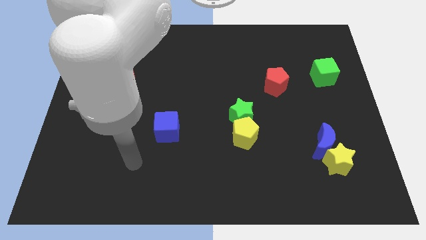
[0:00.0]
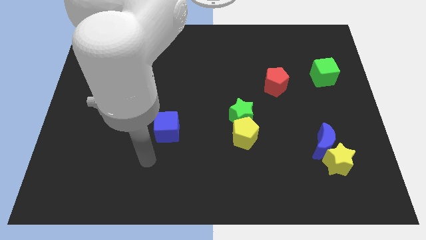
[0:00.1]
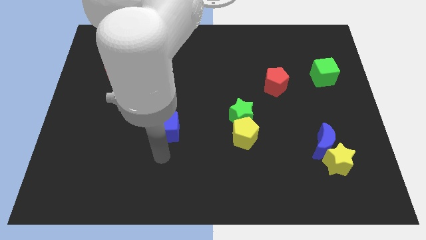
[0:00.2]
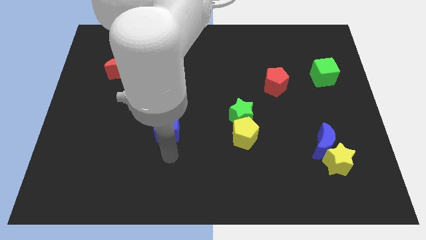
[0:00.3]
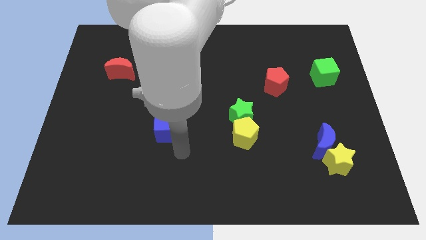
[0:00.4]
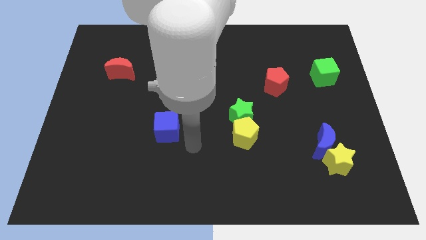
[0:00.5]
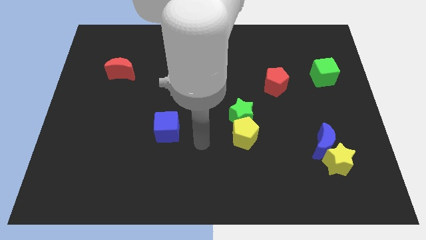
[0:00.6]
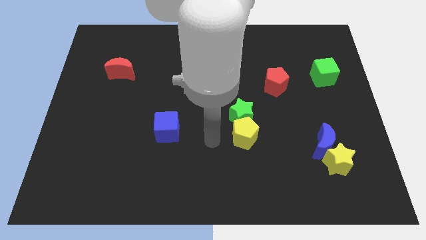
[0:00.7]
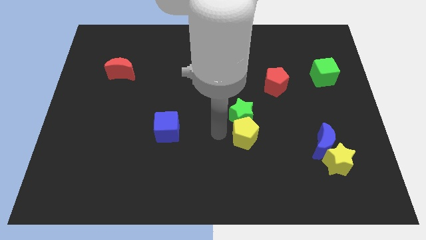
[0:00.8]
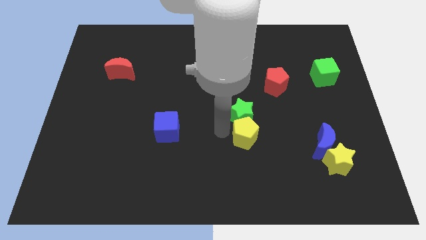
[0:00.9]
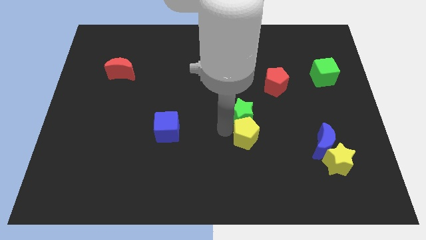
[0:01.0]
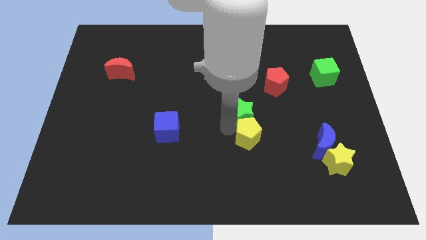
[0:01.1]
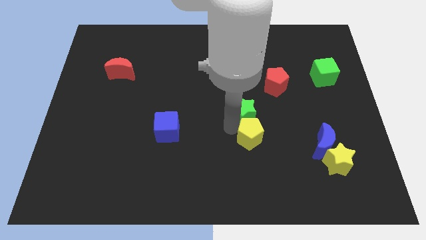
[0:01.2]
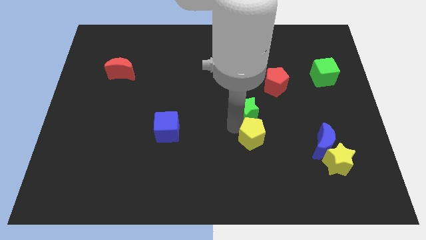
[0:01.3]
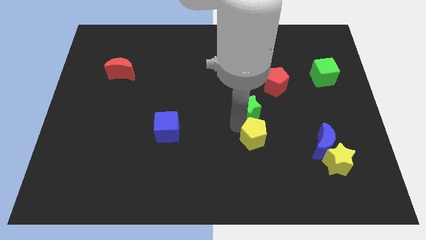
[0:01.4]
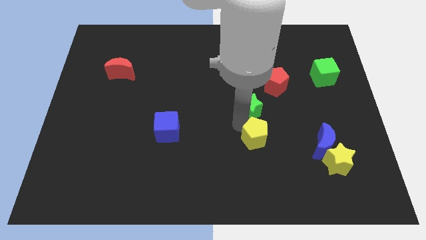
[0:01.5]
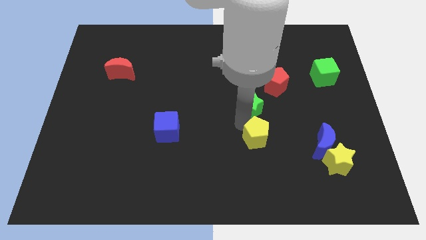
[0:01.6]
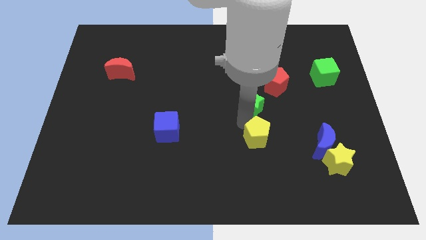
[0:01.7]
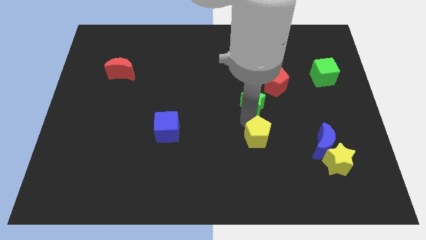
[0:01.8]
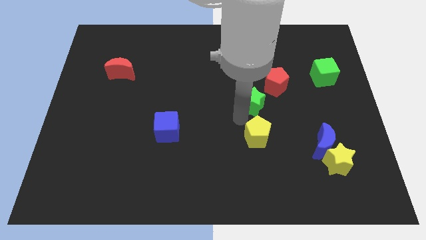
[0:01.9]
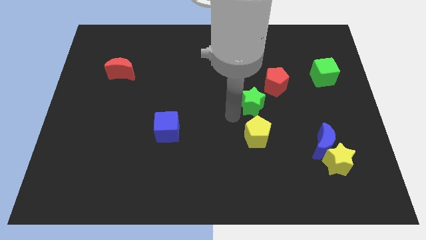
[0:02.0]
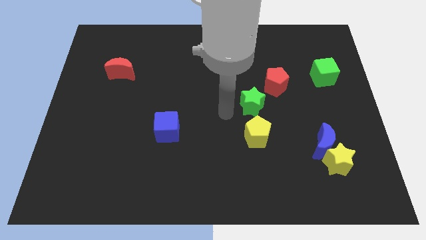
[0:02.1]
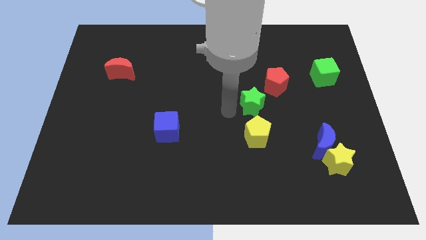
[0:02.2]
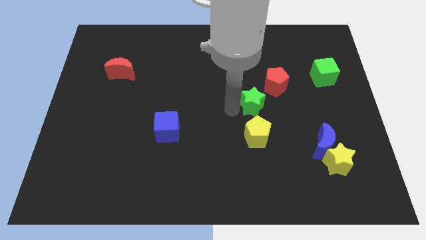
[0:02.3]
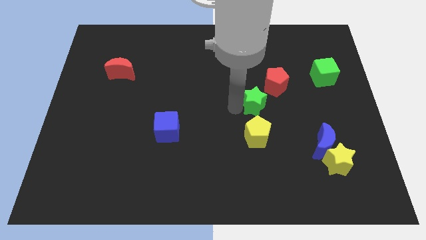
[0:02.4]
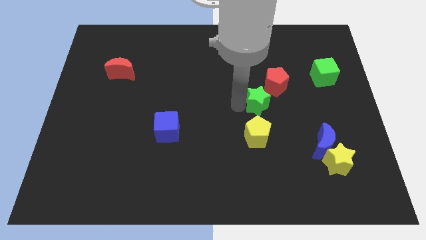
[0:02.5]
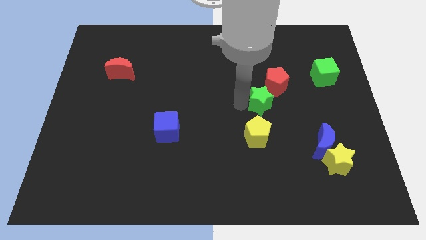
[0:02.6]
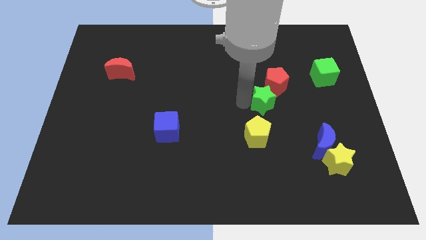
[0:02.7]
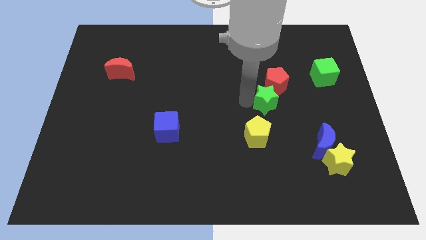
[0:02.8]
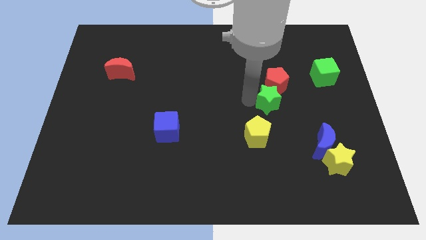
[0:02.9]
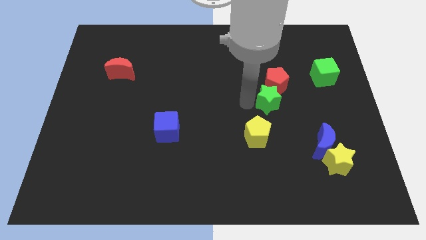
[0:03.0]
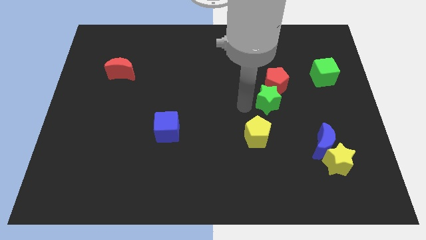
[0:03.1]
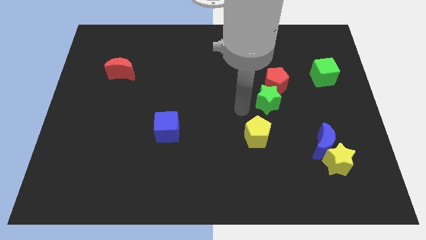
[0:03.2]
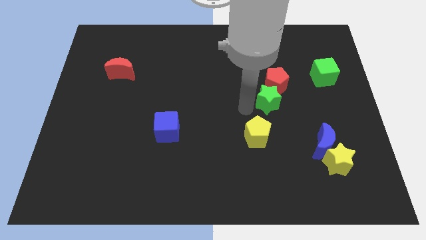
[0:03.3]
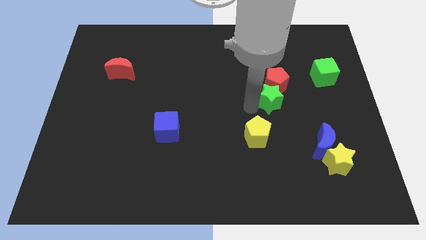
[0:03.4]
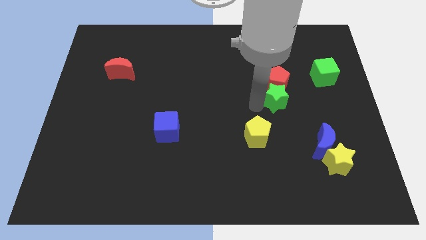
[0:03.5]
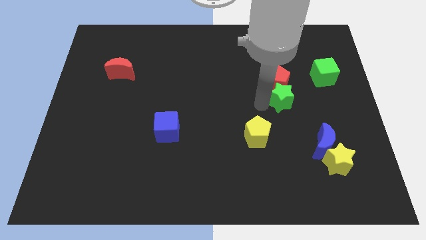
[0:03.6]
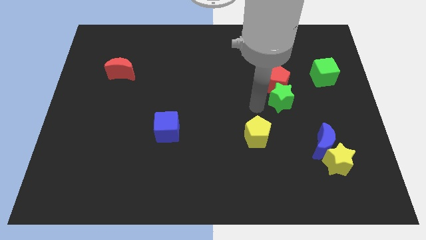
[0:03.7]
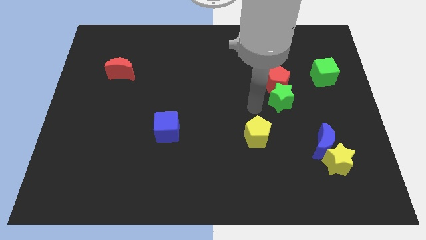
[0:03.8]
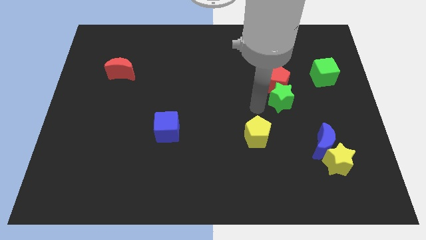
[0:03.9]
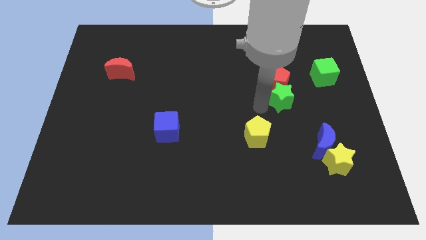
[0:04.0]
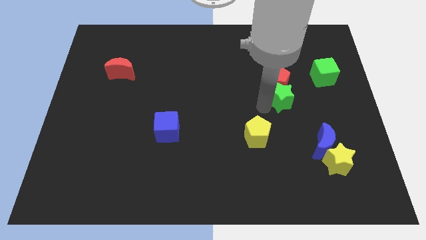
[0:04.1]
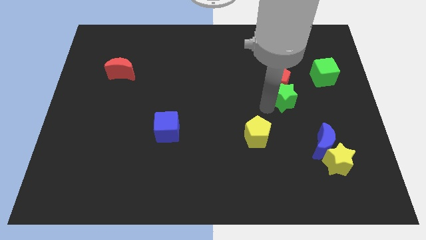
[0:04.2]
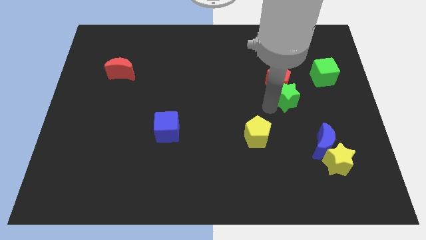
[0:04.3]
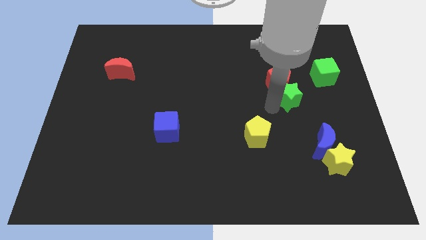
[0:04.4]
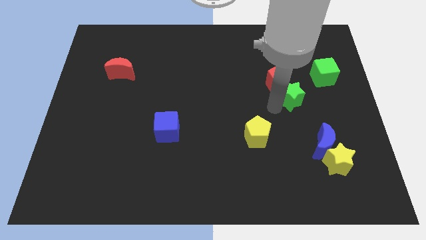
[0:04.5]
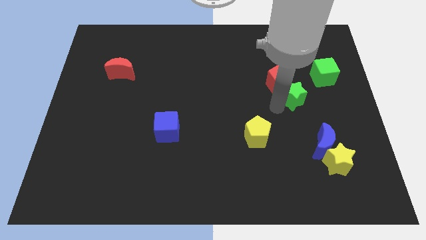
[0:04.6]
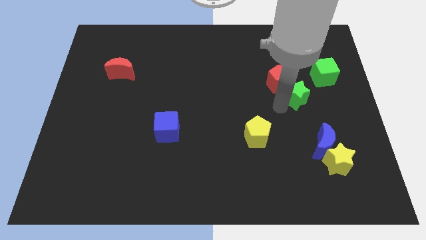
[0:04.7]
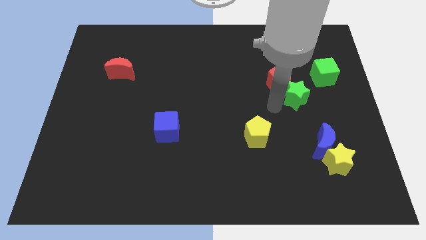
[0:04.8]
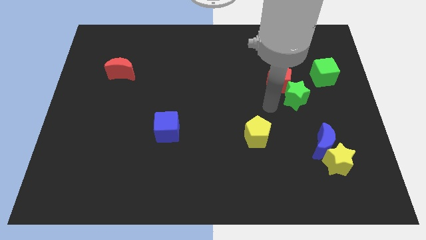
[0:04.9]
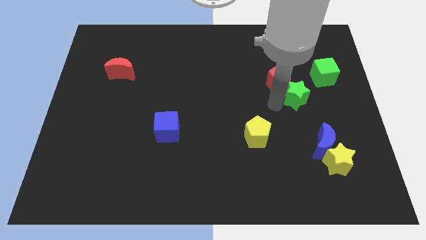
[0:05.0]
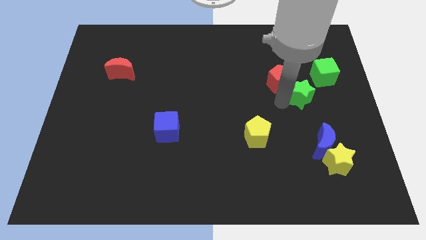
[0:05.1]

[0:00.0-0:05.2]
slide the green star to the right of the red pentagon

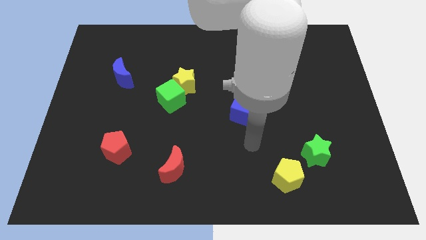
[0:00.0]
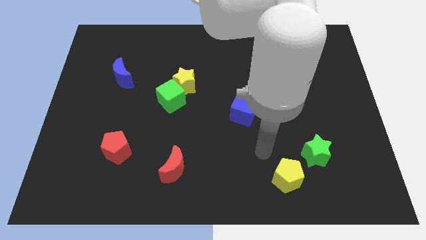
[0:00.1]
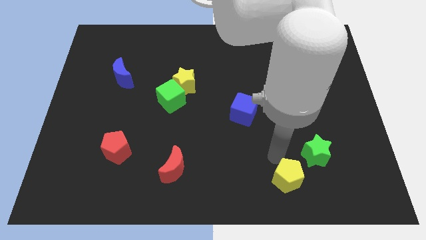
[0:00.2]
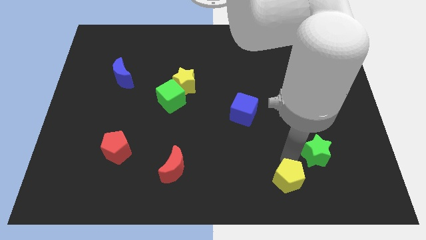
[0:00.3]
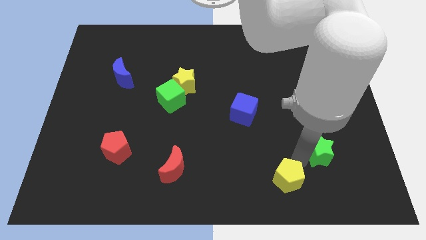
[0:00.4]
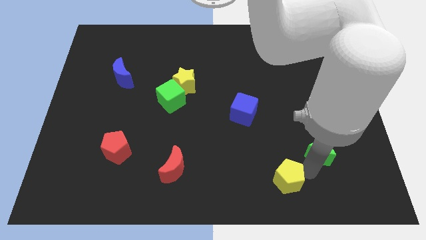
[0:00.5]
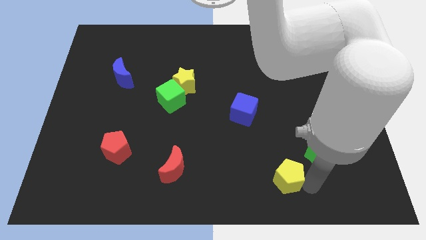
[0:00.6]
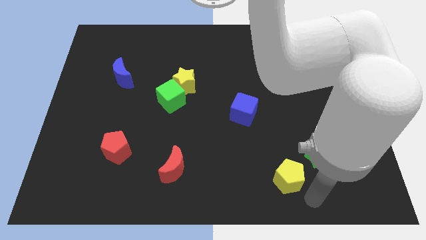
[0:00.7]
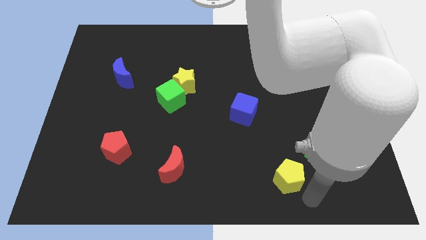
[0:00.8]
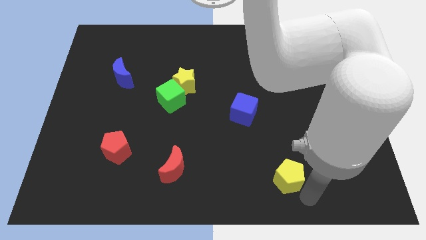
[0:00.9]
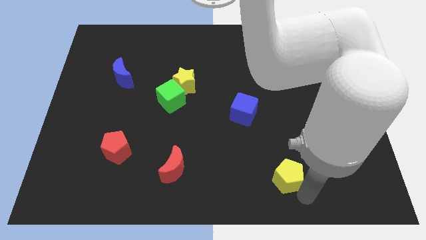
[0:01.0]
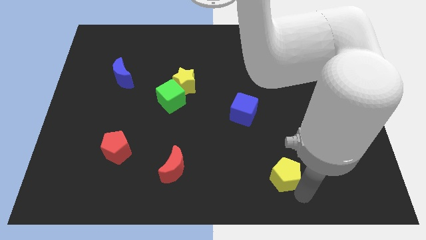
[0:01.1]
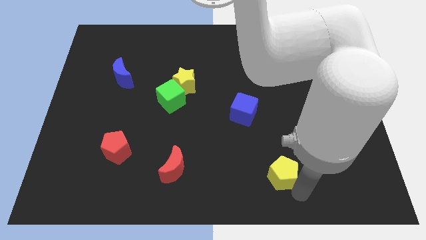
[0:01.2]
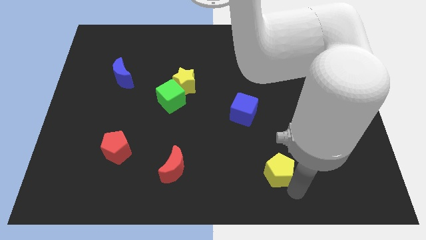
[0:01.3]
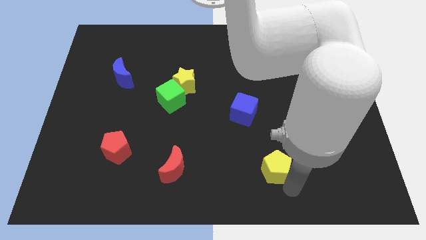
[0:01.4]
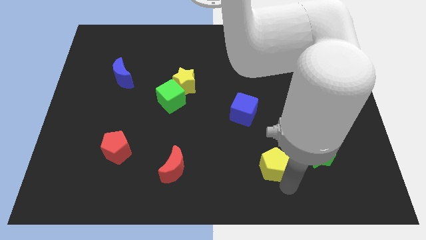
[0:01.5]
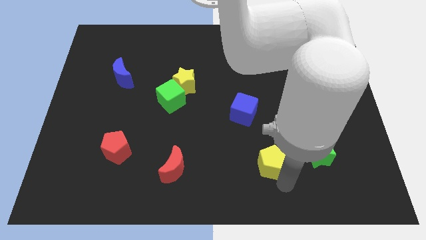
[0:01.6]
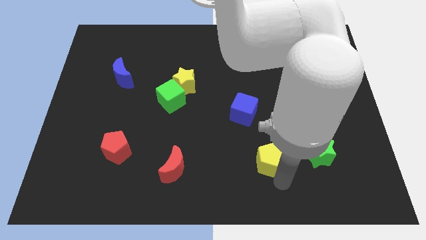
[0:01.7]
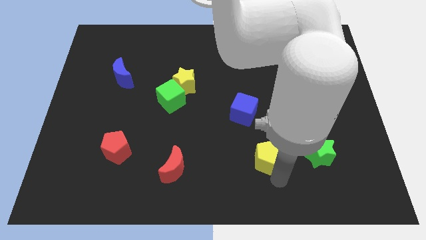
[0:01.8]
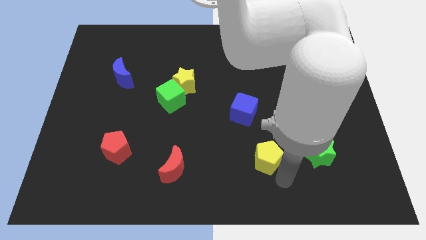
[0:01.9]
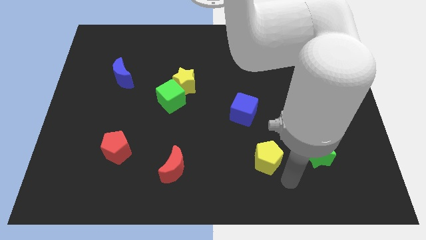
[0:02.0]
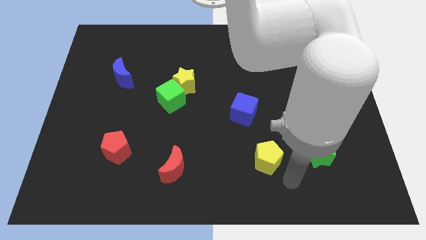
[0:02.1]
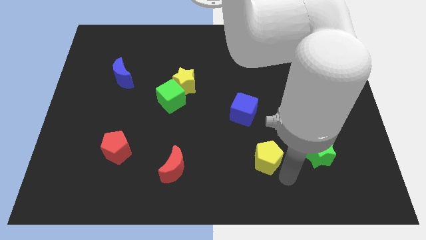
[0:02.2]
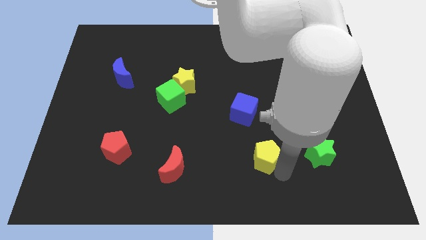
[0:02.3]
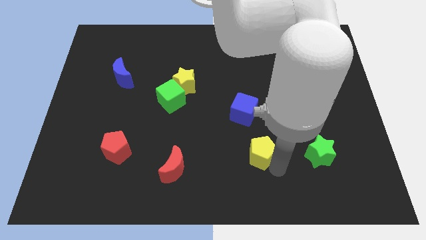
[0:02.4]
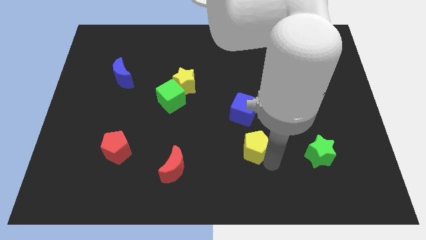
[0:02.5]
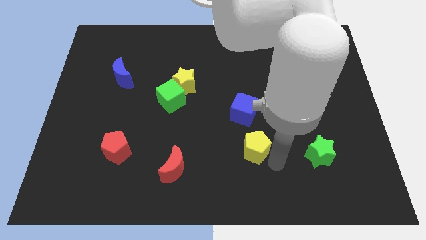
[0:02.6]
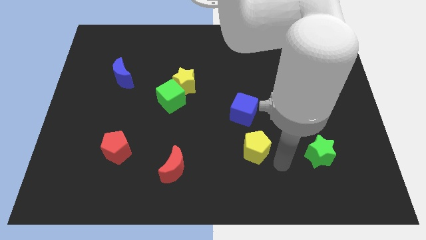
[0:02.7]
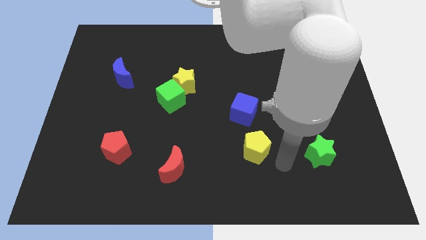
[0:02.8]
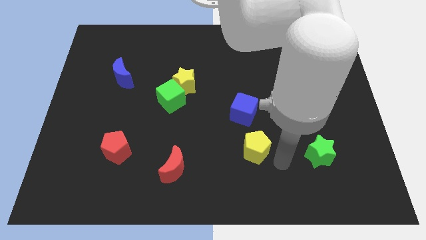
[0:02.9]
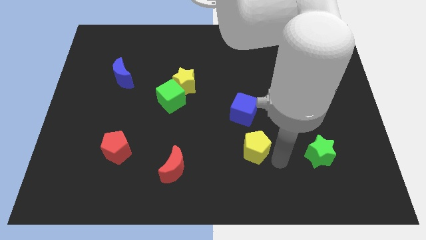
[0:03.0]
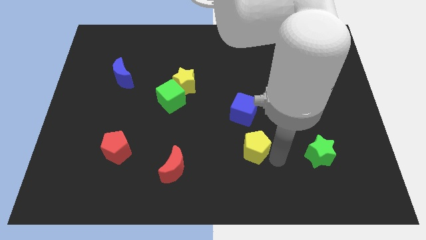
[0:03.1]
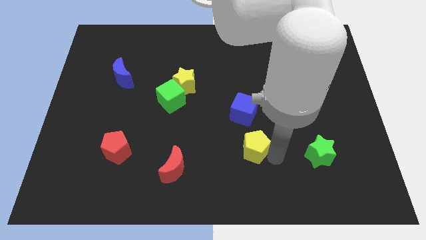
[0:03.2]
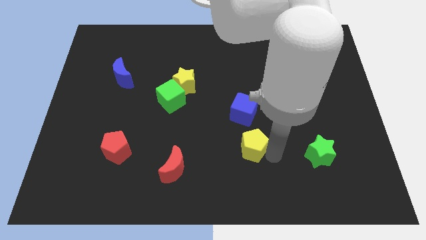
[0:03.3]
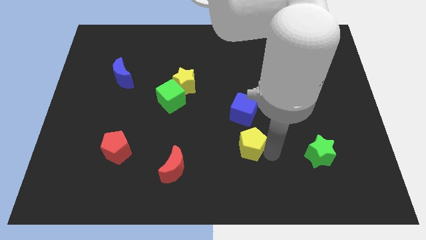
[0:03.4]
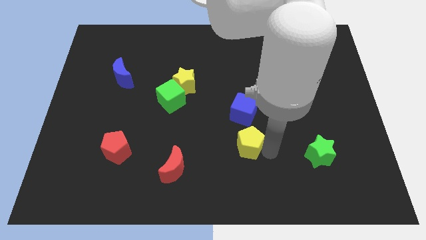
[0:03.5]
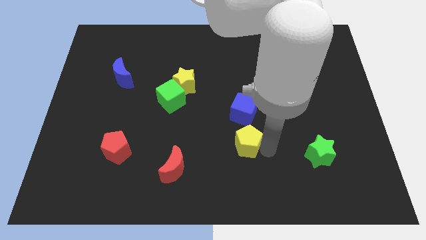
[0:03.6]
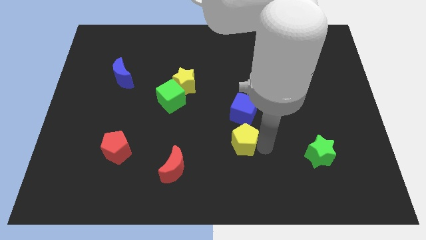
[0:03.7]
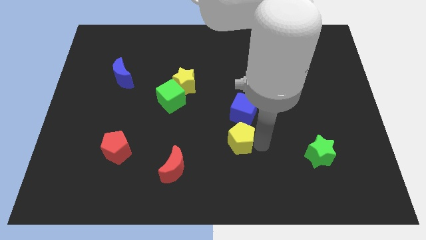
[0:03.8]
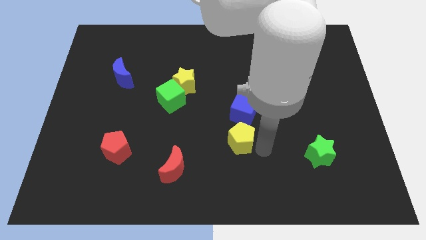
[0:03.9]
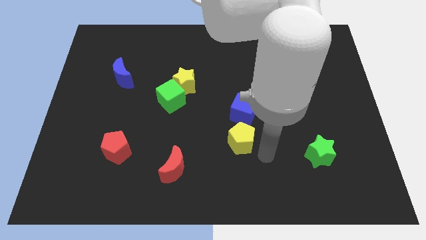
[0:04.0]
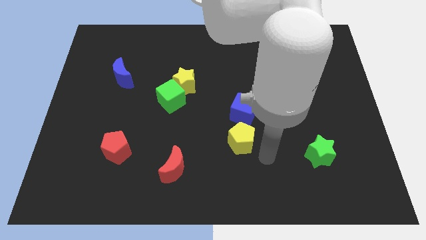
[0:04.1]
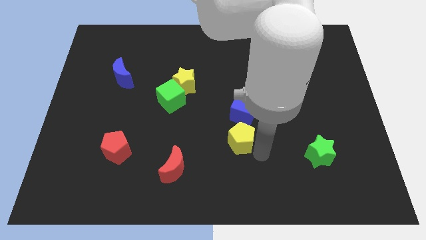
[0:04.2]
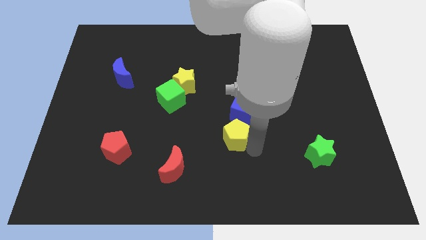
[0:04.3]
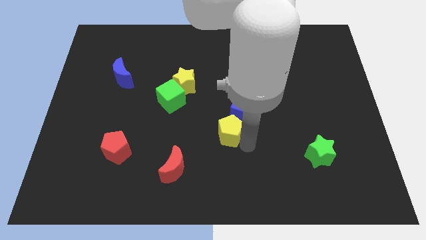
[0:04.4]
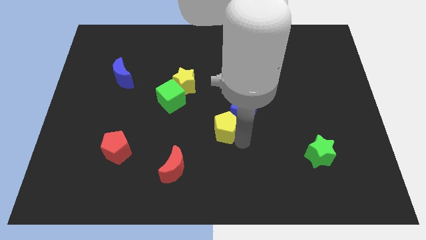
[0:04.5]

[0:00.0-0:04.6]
put the yellow pentagon to the left of the blue cube
